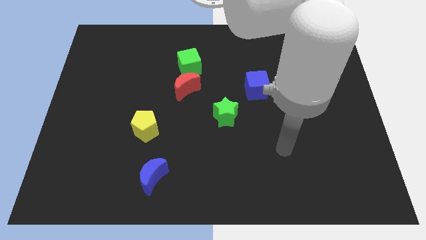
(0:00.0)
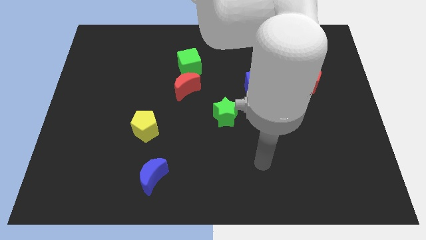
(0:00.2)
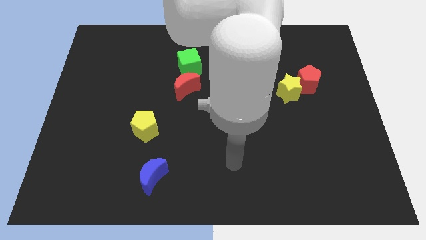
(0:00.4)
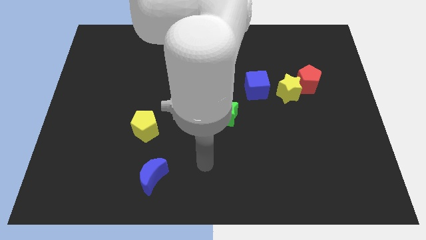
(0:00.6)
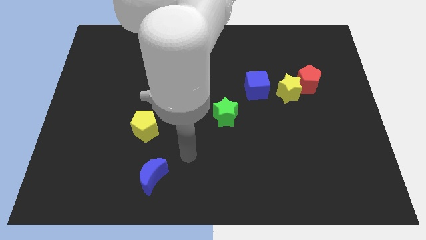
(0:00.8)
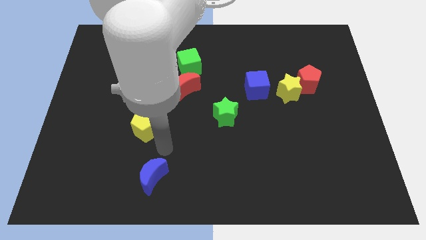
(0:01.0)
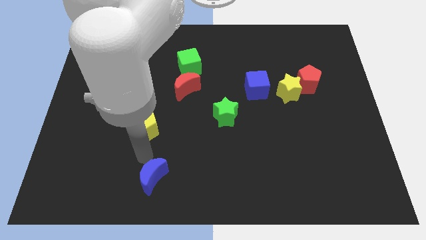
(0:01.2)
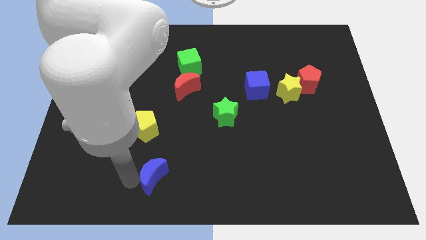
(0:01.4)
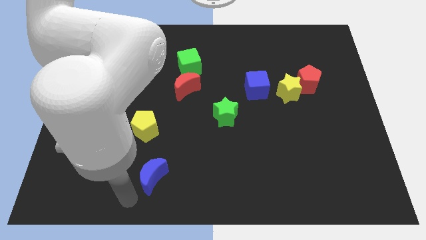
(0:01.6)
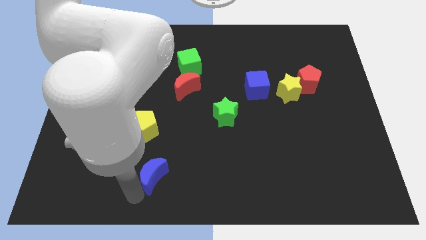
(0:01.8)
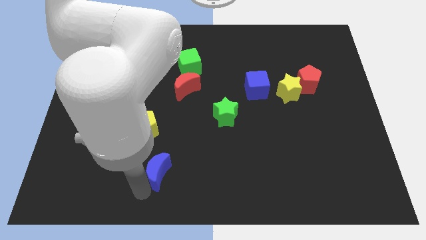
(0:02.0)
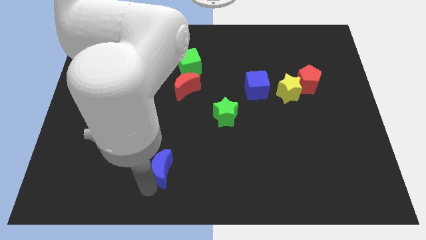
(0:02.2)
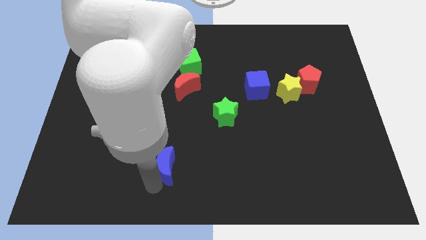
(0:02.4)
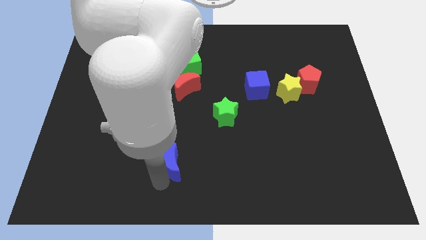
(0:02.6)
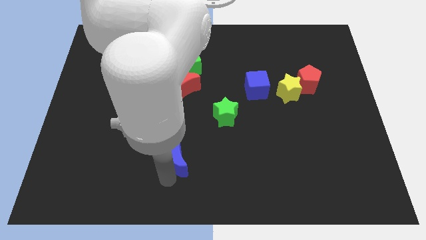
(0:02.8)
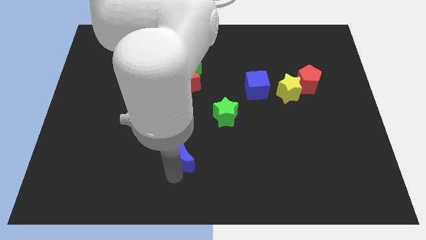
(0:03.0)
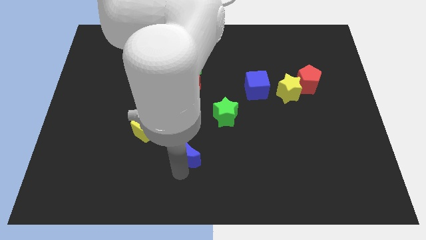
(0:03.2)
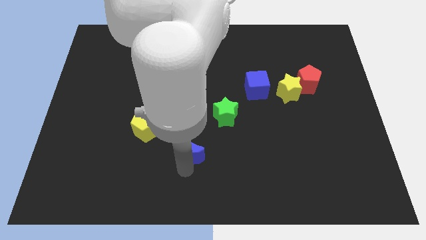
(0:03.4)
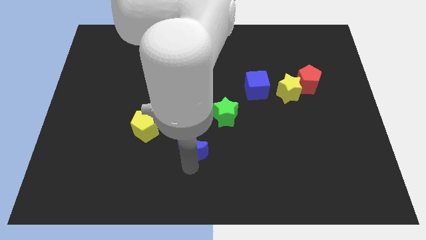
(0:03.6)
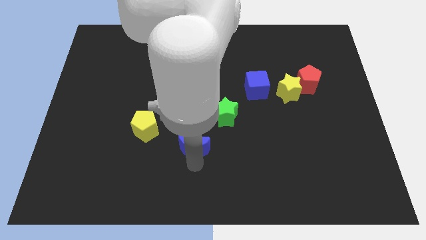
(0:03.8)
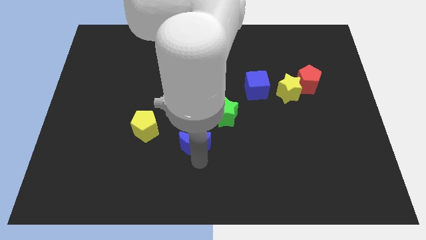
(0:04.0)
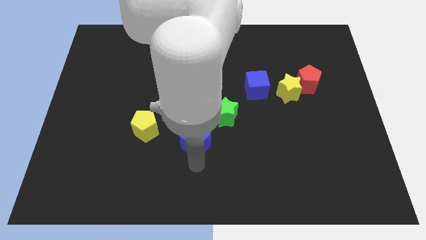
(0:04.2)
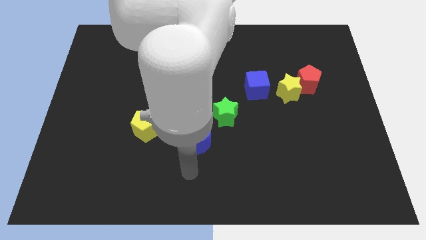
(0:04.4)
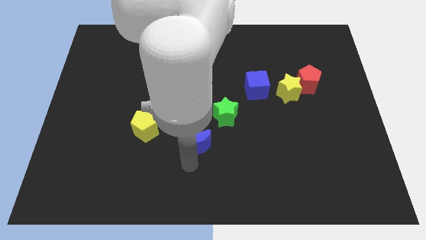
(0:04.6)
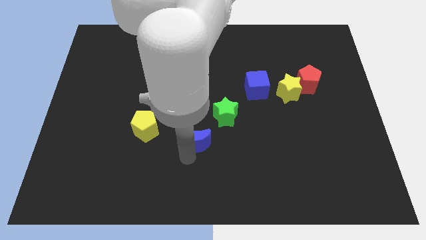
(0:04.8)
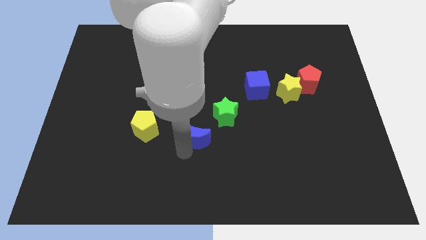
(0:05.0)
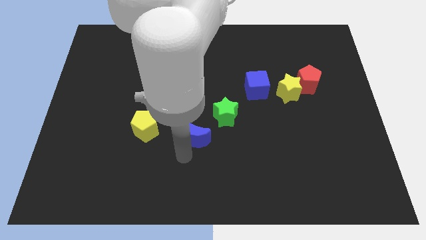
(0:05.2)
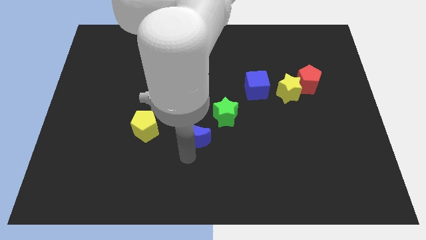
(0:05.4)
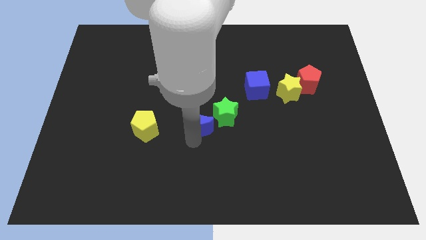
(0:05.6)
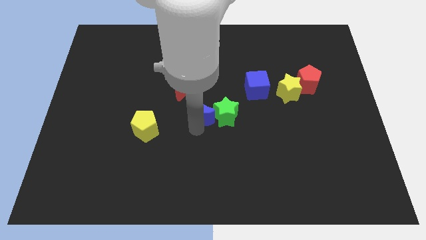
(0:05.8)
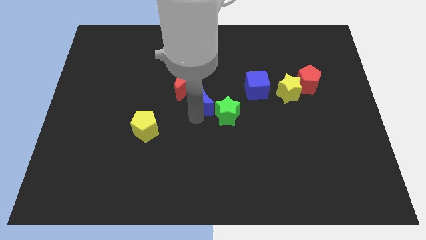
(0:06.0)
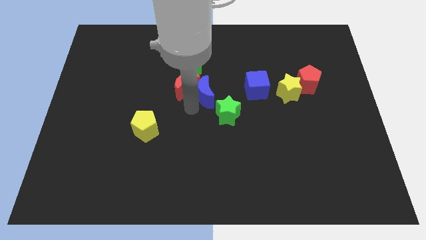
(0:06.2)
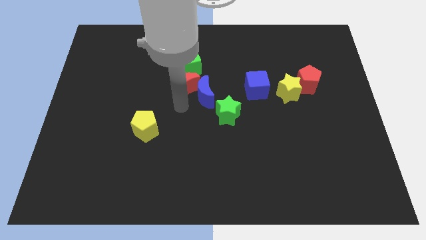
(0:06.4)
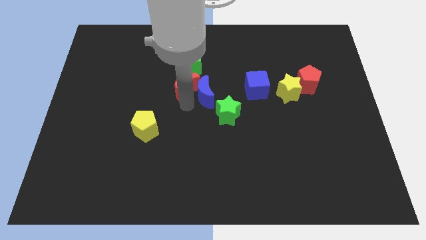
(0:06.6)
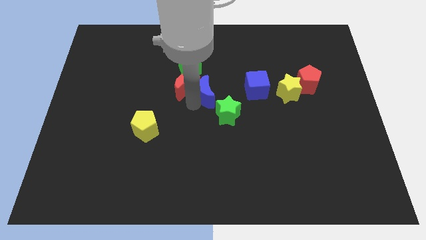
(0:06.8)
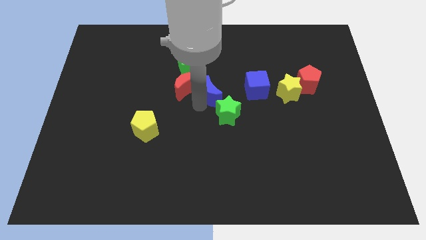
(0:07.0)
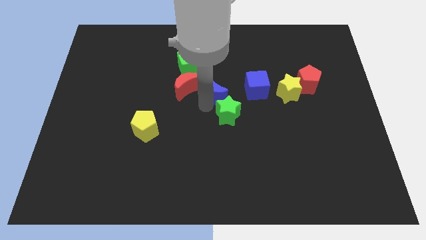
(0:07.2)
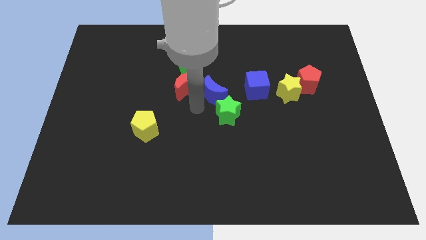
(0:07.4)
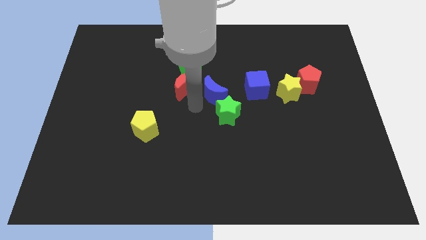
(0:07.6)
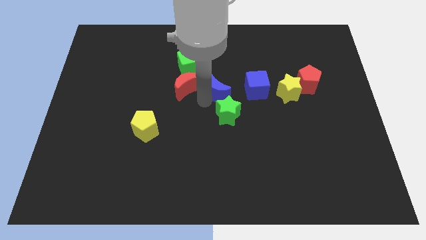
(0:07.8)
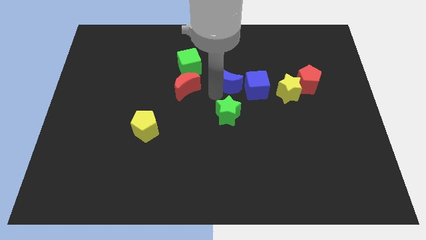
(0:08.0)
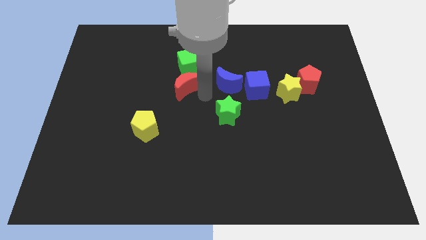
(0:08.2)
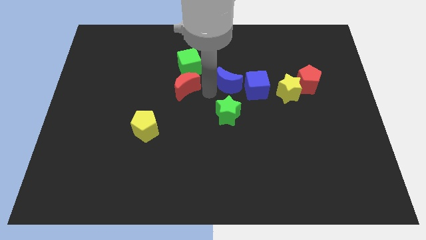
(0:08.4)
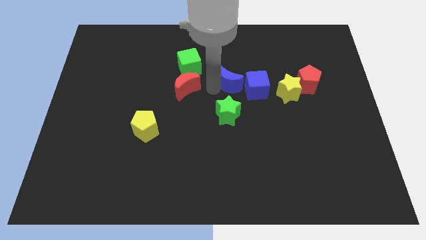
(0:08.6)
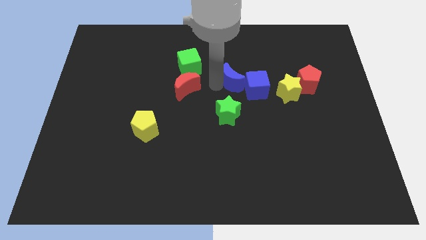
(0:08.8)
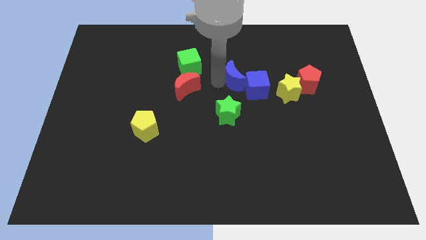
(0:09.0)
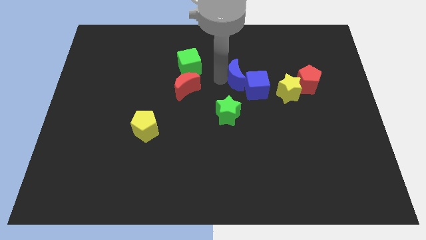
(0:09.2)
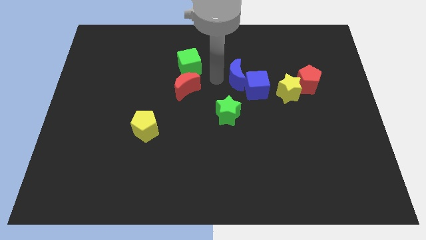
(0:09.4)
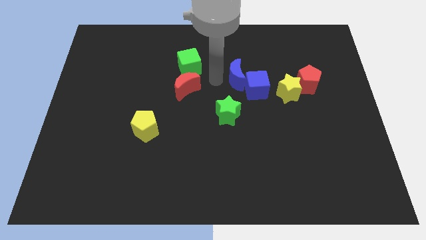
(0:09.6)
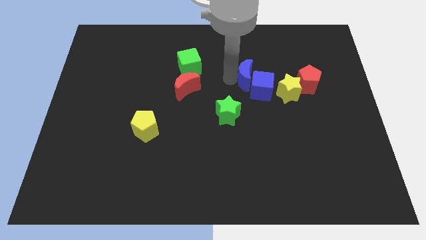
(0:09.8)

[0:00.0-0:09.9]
push the blue moon to the top left side of the yellow star

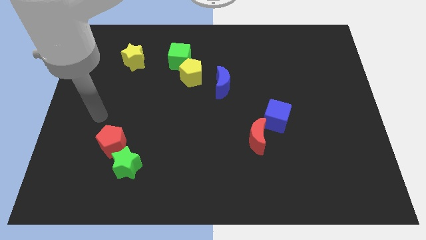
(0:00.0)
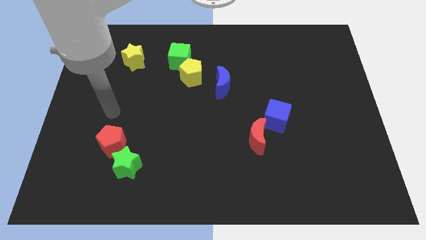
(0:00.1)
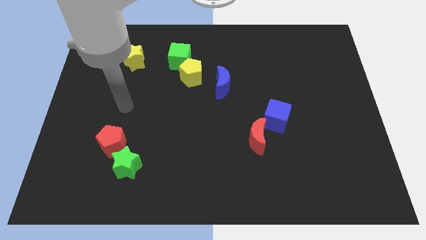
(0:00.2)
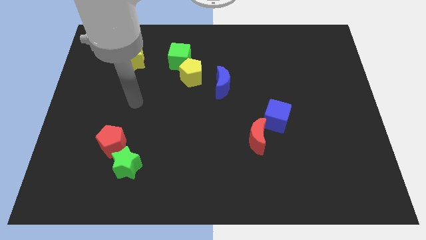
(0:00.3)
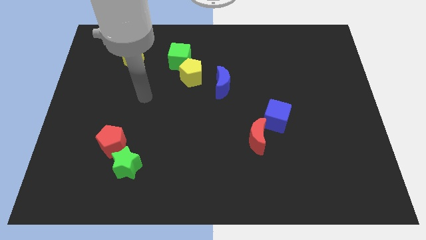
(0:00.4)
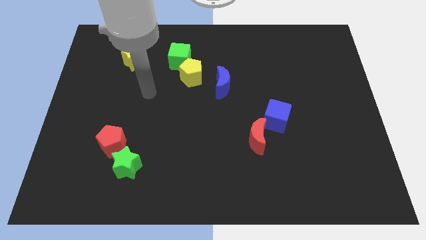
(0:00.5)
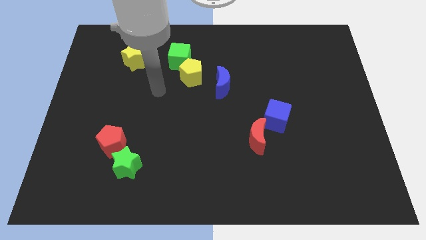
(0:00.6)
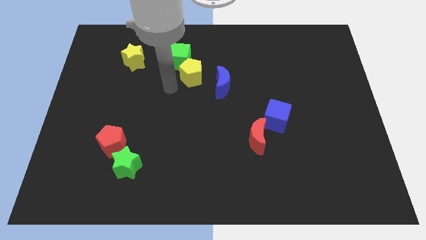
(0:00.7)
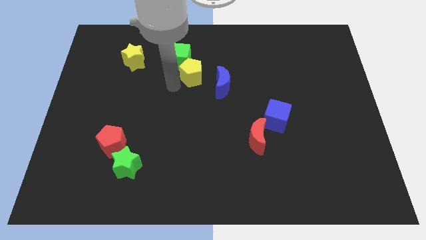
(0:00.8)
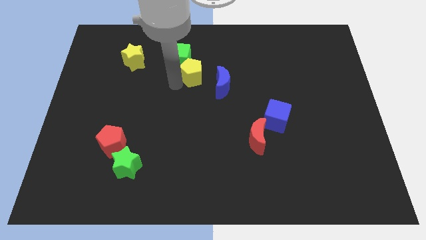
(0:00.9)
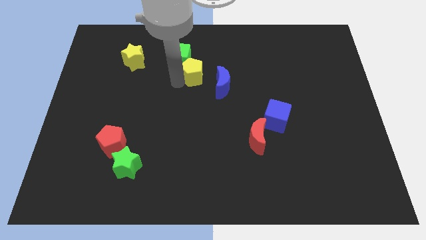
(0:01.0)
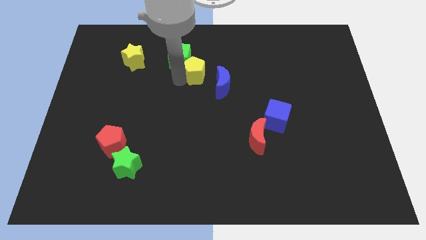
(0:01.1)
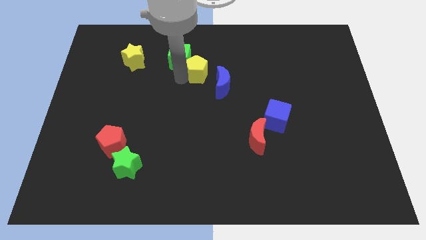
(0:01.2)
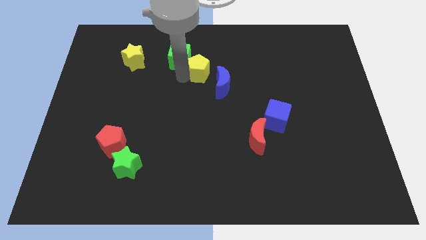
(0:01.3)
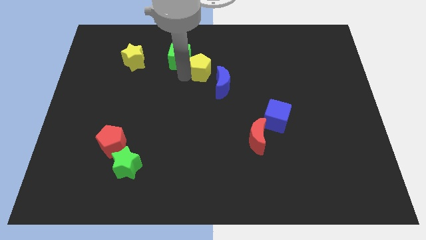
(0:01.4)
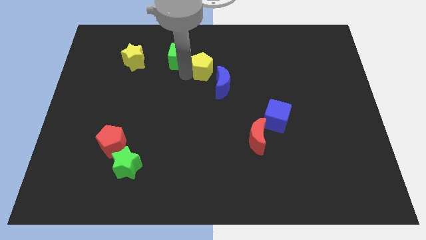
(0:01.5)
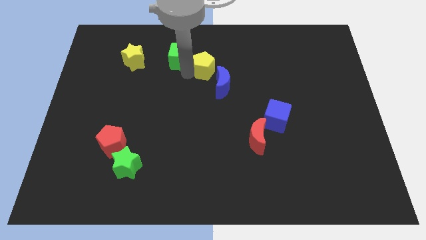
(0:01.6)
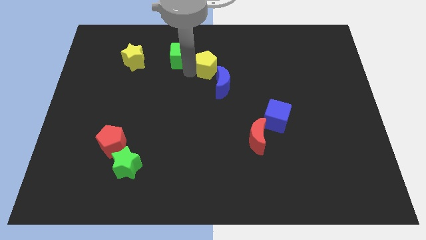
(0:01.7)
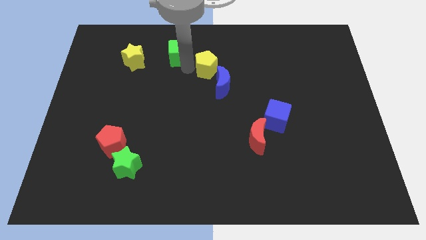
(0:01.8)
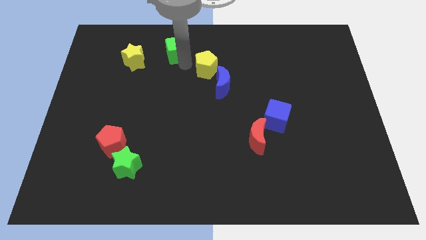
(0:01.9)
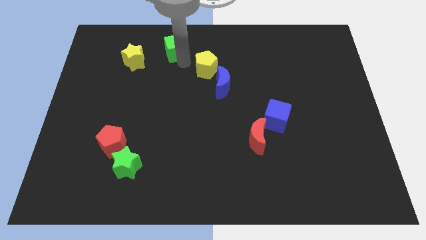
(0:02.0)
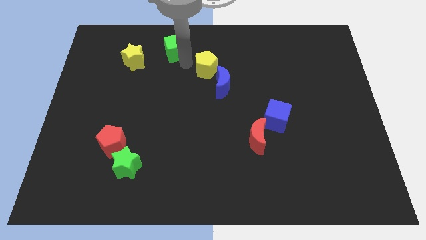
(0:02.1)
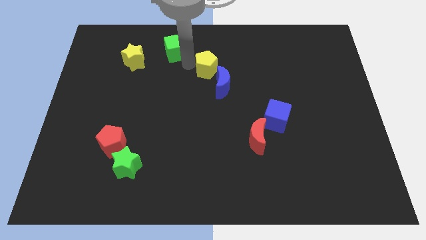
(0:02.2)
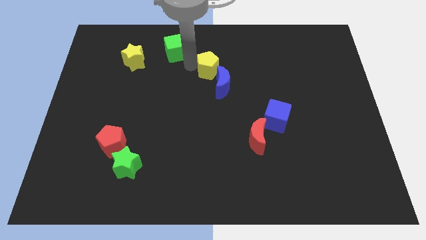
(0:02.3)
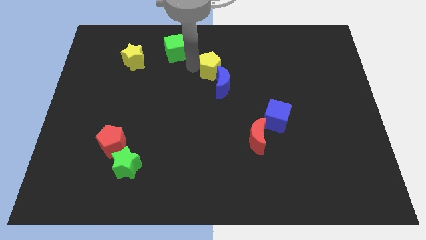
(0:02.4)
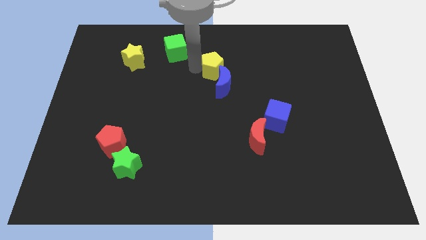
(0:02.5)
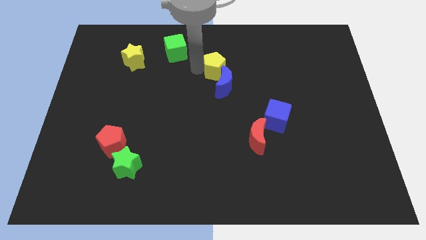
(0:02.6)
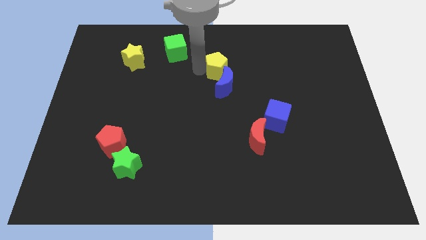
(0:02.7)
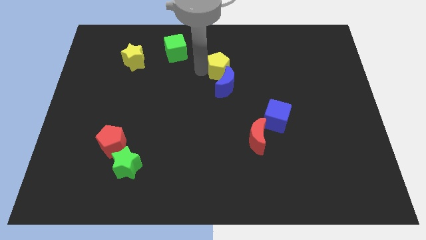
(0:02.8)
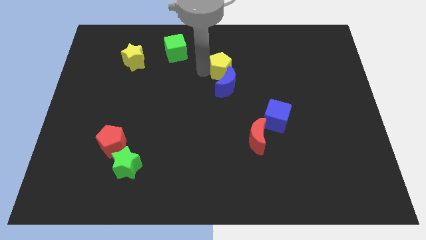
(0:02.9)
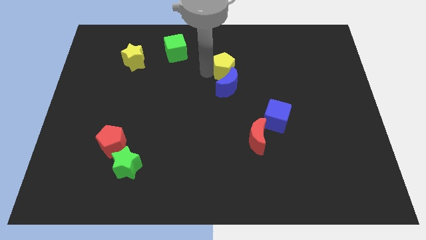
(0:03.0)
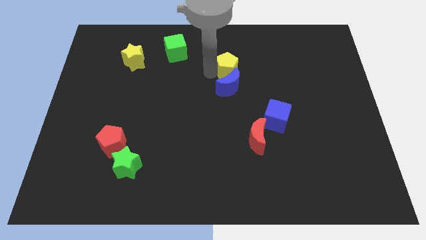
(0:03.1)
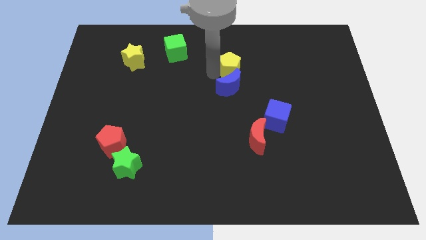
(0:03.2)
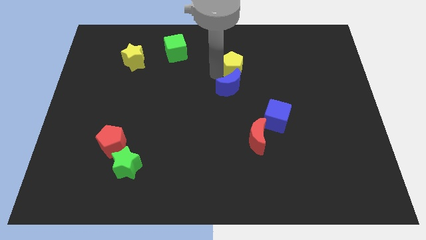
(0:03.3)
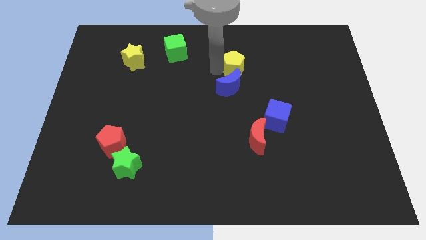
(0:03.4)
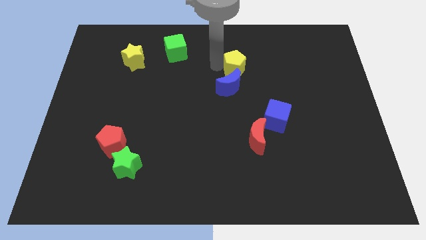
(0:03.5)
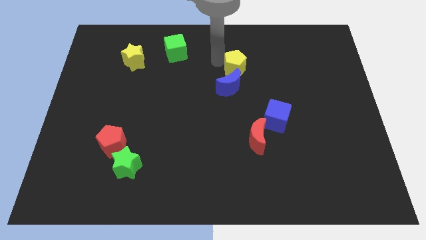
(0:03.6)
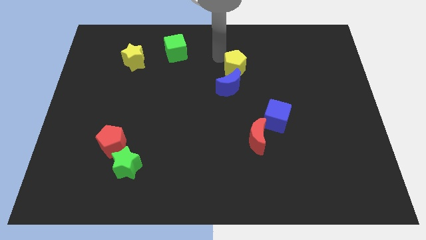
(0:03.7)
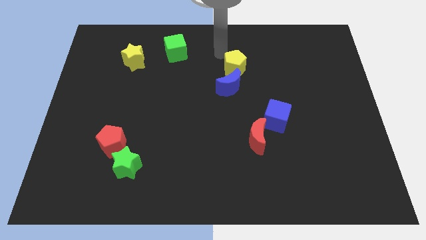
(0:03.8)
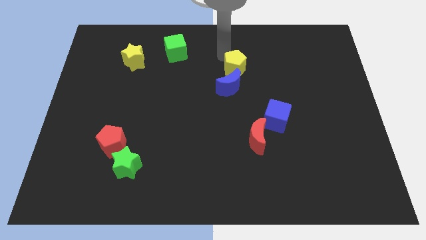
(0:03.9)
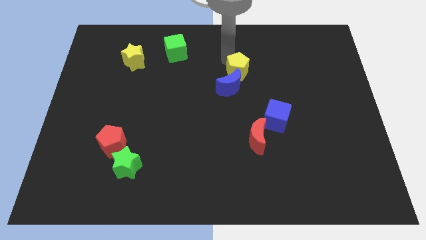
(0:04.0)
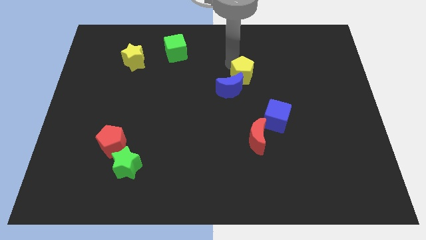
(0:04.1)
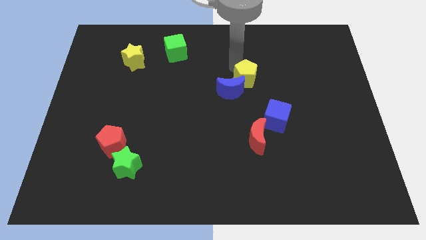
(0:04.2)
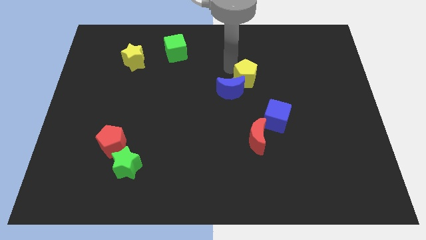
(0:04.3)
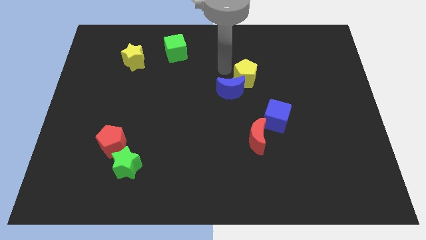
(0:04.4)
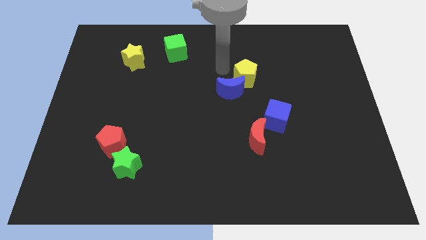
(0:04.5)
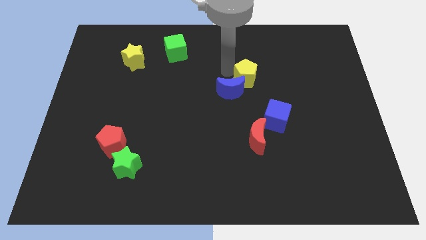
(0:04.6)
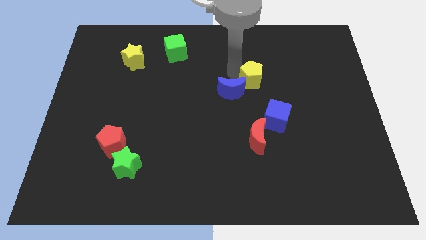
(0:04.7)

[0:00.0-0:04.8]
push the yellow pentagon to the top of the blue cube
